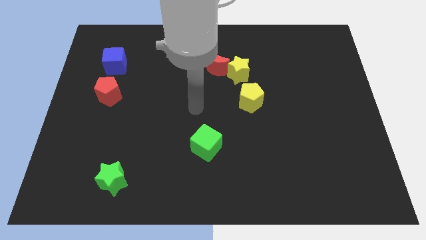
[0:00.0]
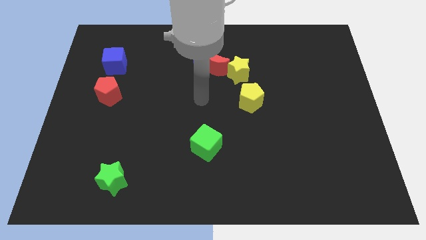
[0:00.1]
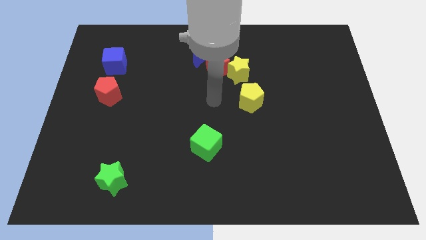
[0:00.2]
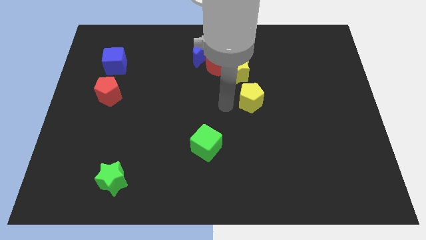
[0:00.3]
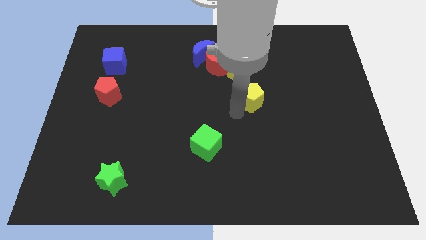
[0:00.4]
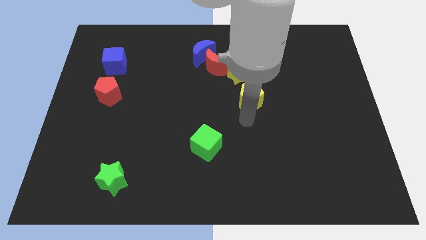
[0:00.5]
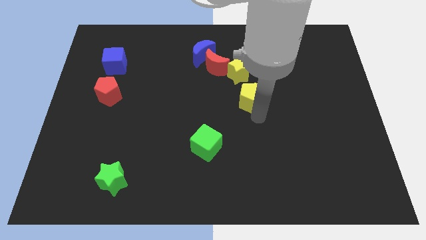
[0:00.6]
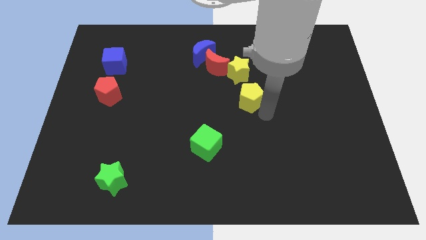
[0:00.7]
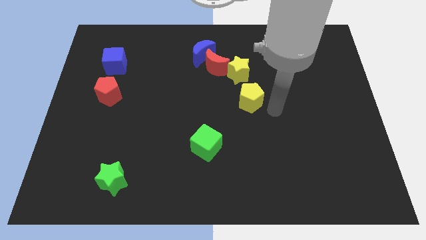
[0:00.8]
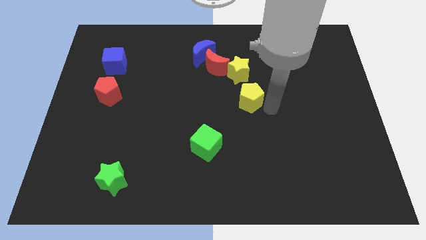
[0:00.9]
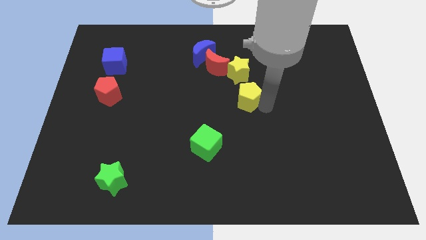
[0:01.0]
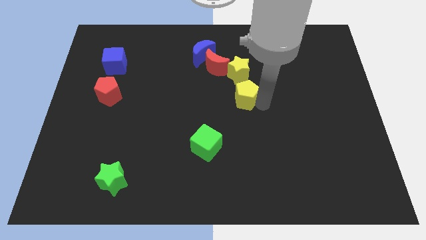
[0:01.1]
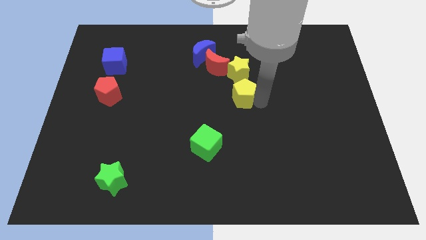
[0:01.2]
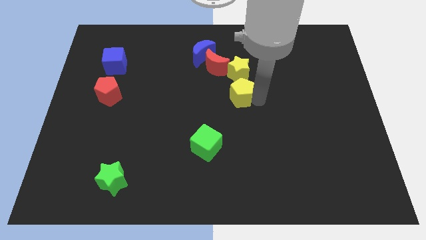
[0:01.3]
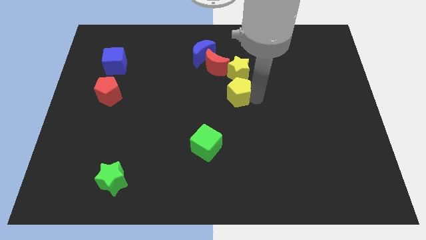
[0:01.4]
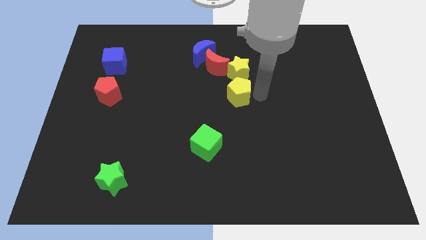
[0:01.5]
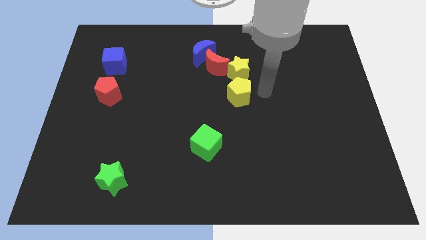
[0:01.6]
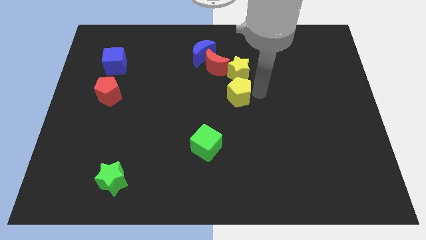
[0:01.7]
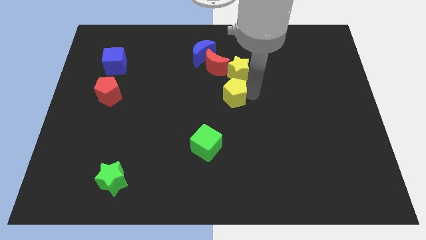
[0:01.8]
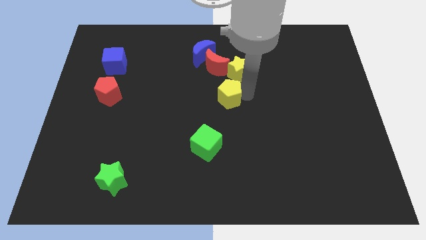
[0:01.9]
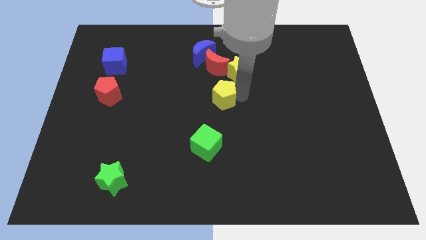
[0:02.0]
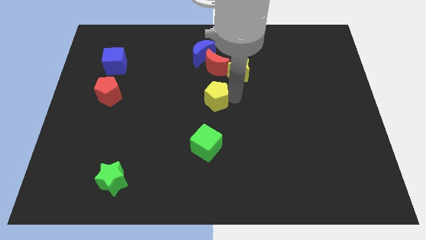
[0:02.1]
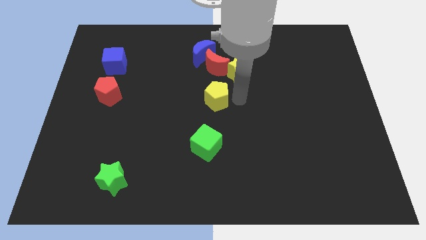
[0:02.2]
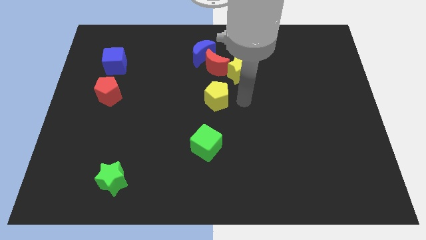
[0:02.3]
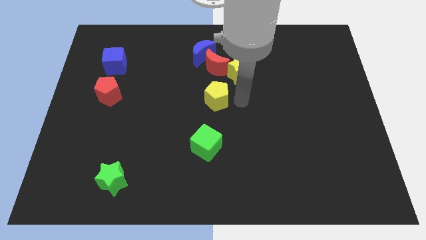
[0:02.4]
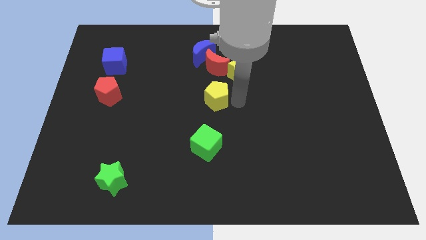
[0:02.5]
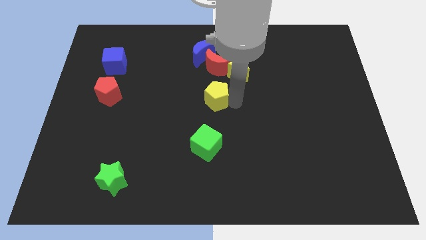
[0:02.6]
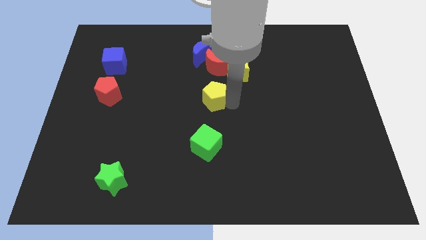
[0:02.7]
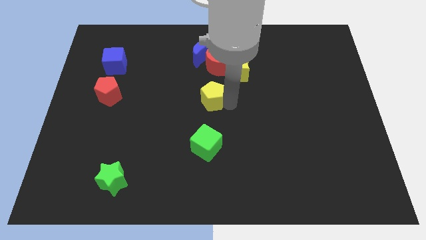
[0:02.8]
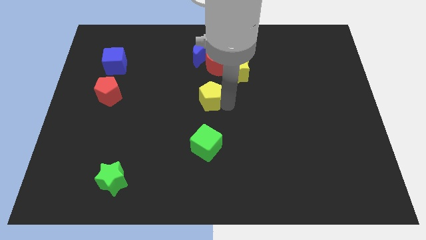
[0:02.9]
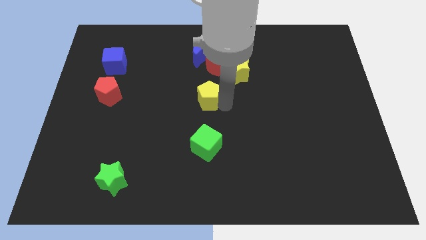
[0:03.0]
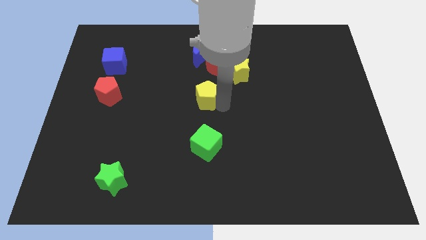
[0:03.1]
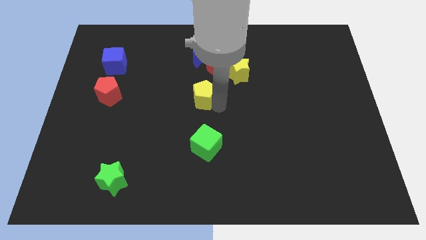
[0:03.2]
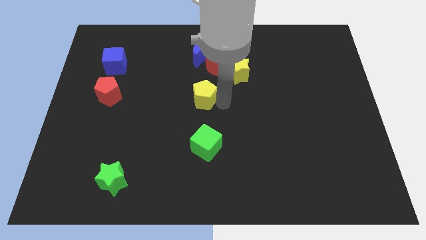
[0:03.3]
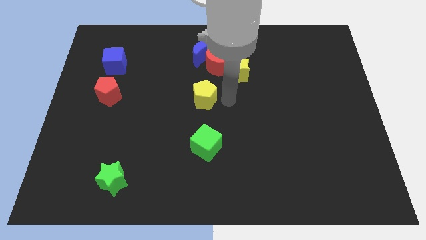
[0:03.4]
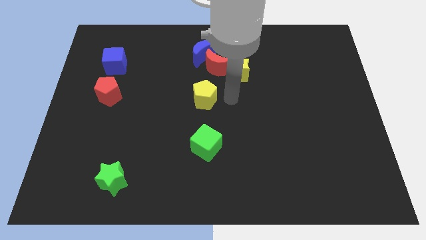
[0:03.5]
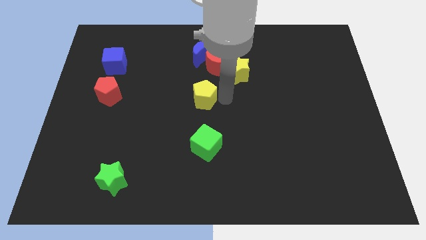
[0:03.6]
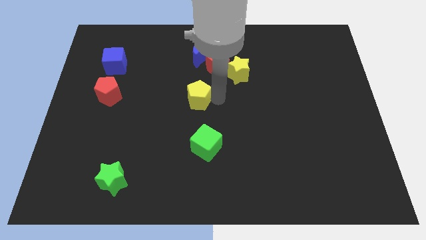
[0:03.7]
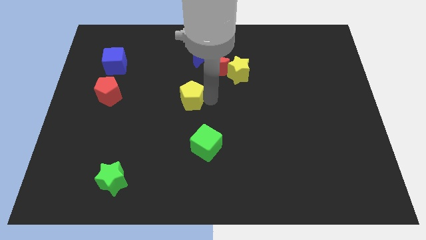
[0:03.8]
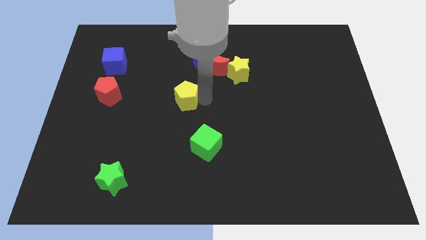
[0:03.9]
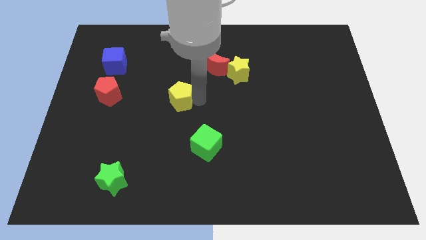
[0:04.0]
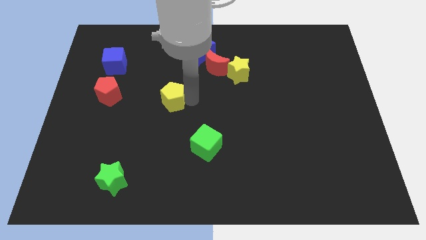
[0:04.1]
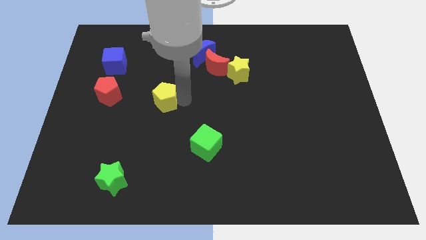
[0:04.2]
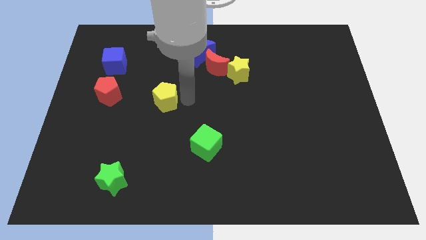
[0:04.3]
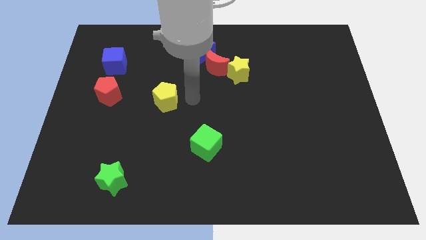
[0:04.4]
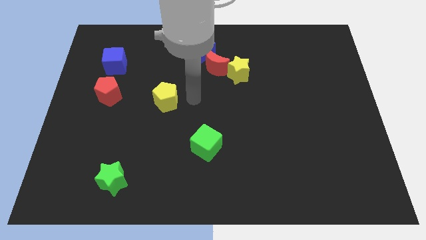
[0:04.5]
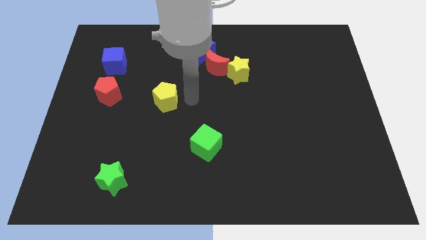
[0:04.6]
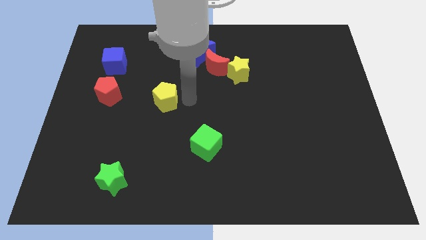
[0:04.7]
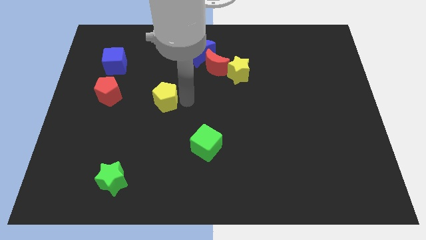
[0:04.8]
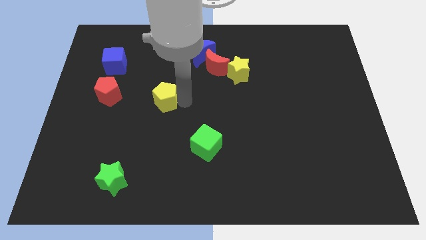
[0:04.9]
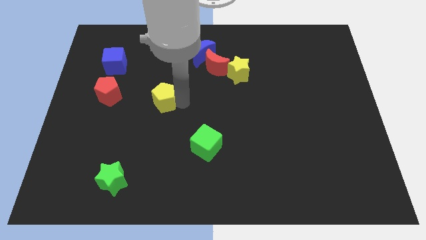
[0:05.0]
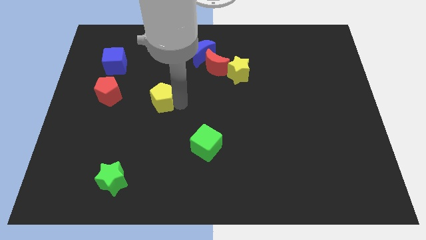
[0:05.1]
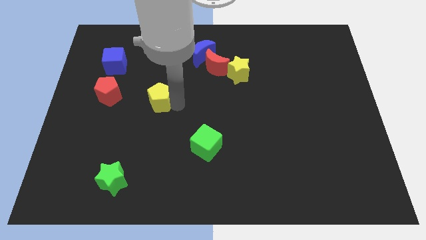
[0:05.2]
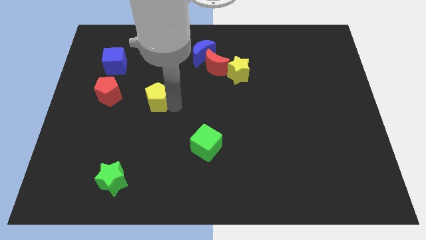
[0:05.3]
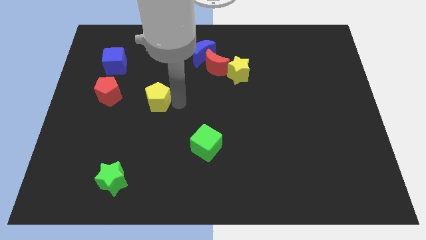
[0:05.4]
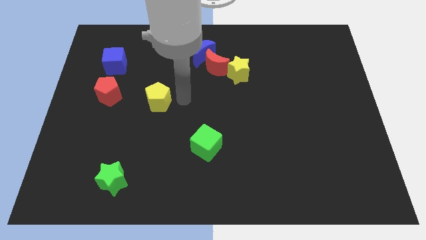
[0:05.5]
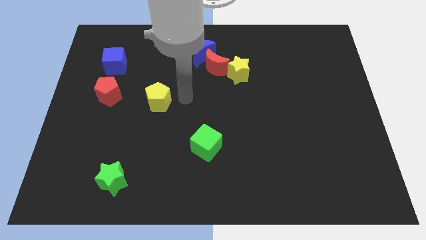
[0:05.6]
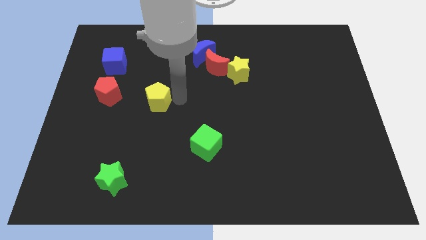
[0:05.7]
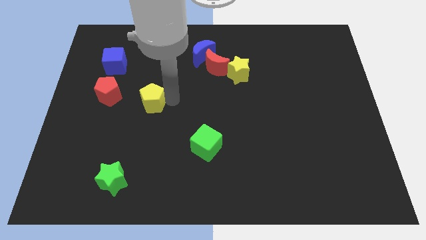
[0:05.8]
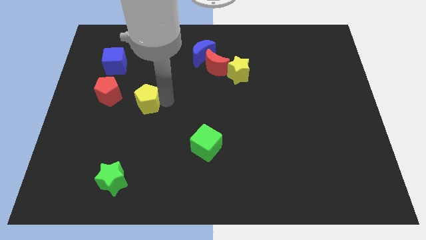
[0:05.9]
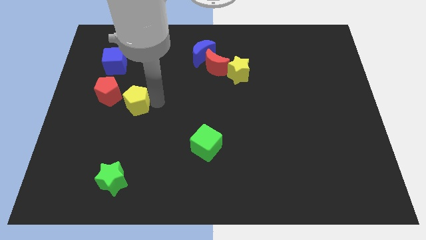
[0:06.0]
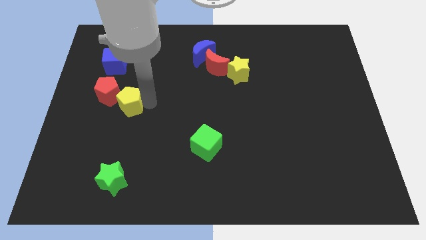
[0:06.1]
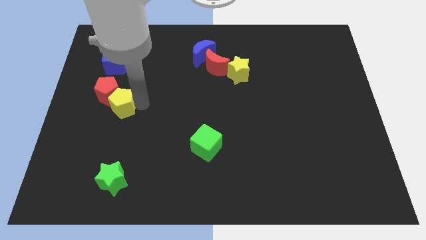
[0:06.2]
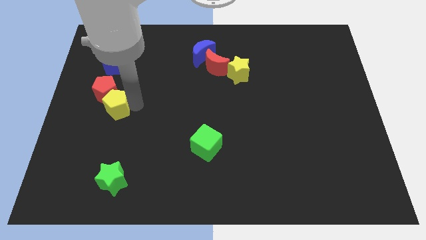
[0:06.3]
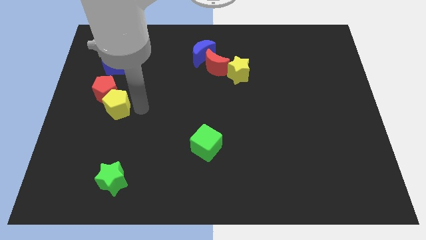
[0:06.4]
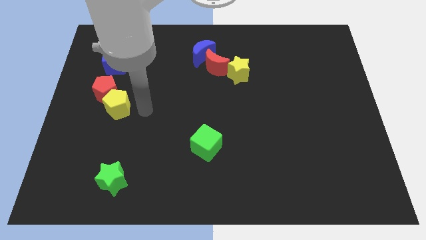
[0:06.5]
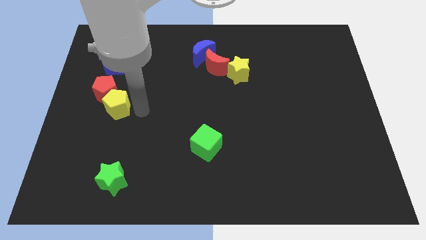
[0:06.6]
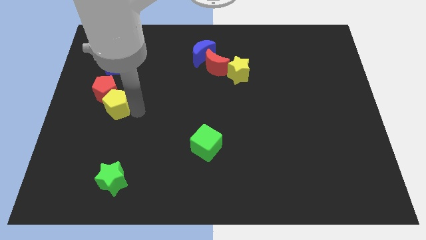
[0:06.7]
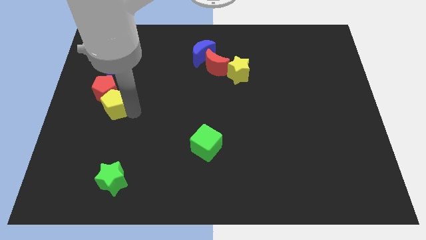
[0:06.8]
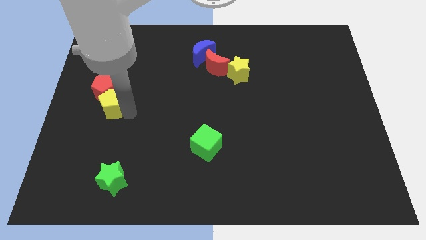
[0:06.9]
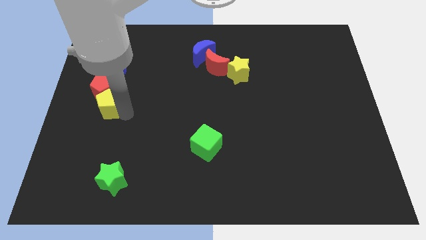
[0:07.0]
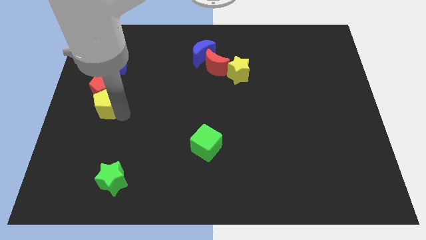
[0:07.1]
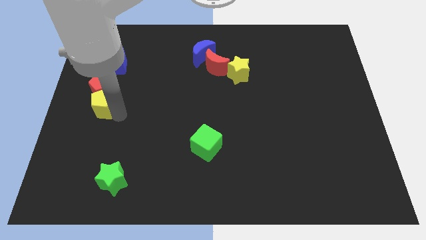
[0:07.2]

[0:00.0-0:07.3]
put the yellow pentagon to the left side of the board
